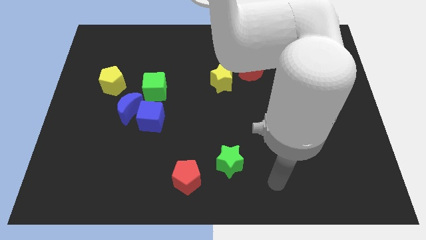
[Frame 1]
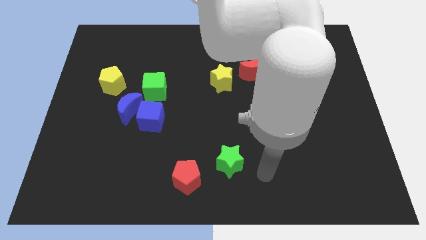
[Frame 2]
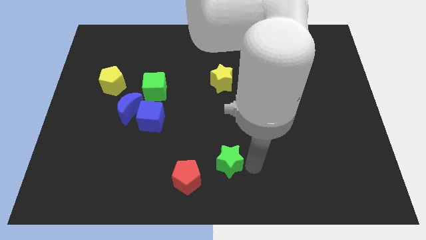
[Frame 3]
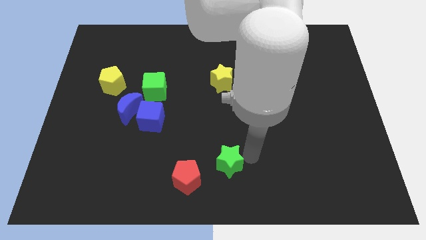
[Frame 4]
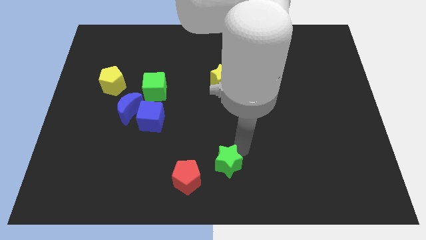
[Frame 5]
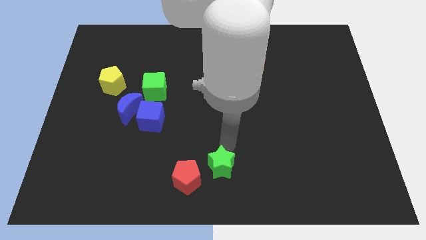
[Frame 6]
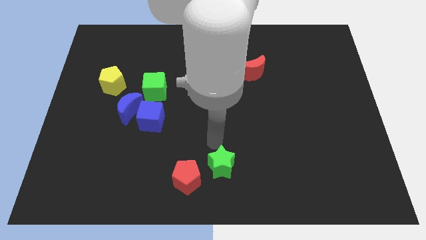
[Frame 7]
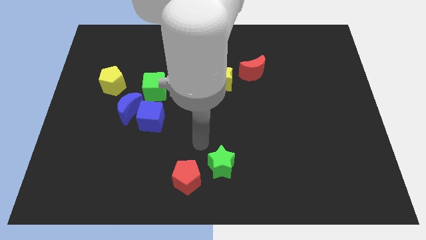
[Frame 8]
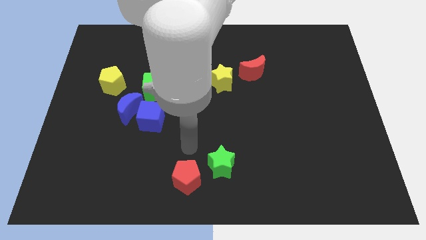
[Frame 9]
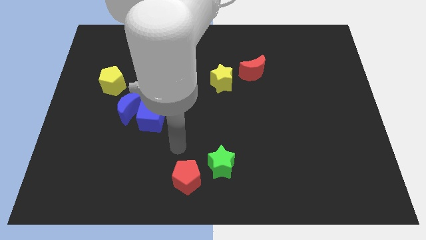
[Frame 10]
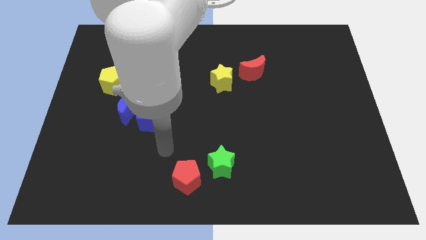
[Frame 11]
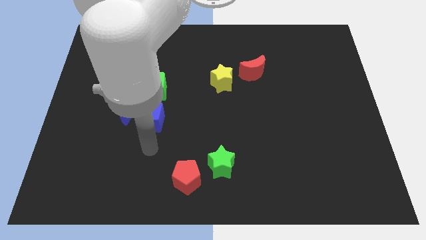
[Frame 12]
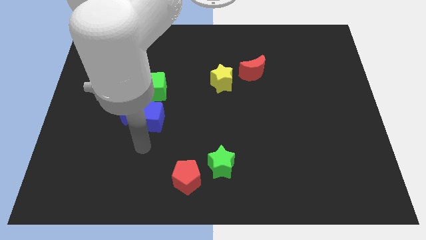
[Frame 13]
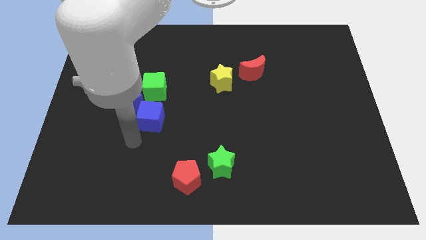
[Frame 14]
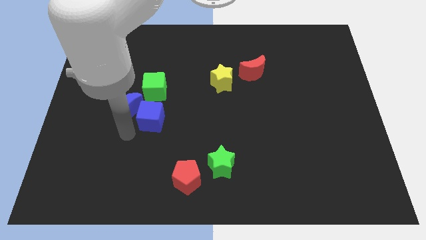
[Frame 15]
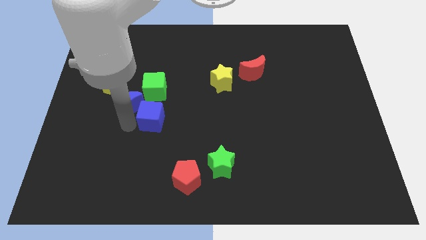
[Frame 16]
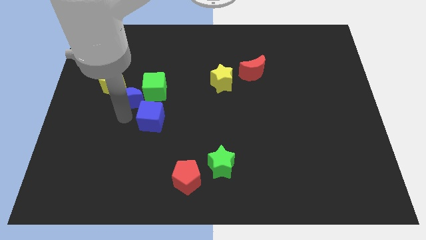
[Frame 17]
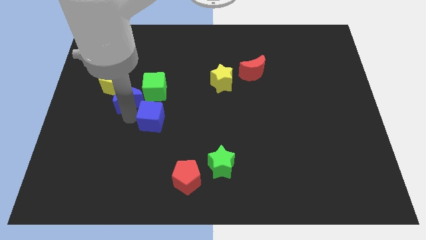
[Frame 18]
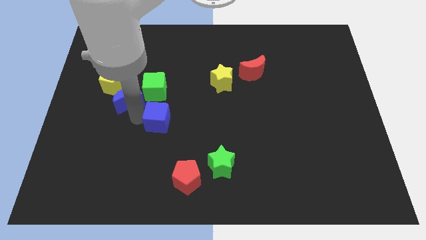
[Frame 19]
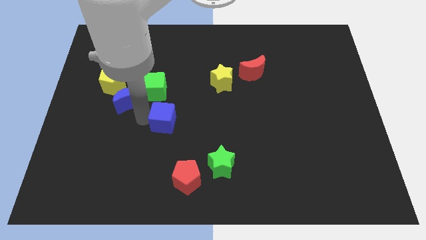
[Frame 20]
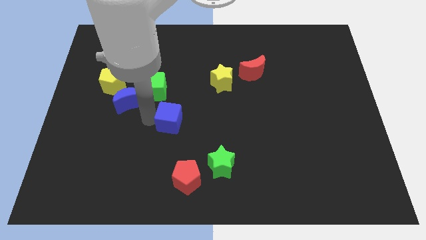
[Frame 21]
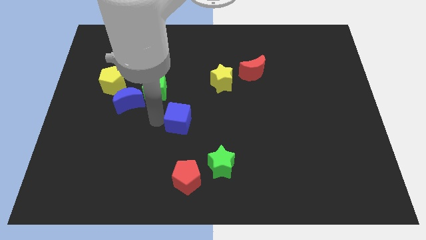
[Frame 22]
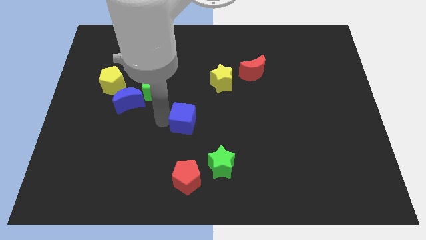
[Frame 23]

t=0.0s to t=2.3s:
slightly move the blue cube to the right

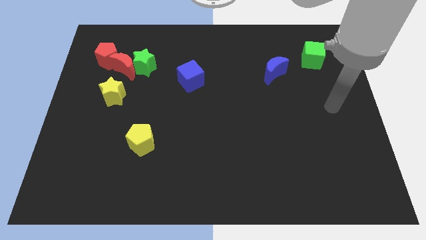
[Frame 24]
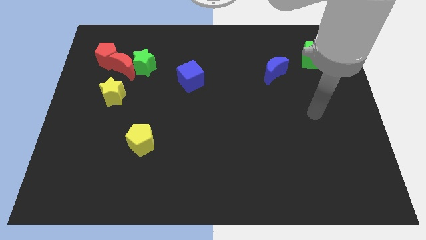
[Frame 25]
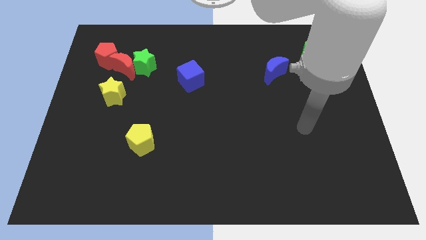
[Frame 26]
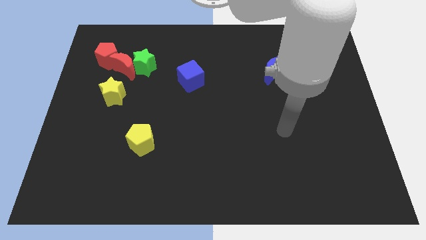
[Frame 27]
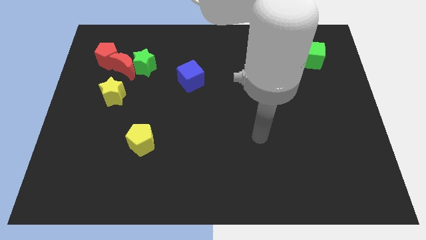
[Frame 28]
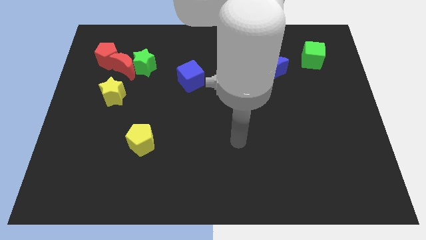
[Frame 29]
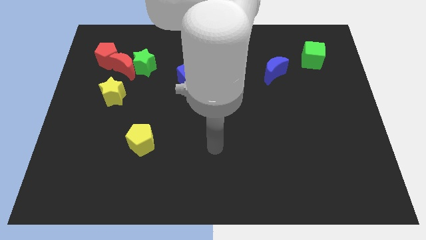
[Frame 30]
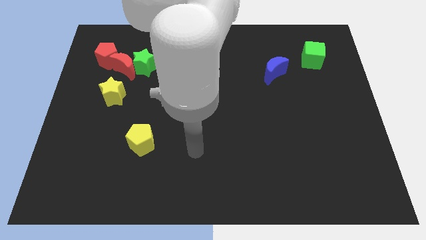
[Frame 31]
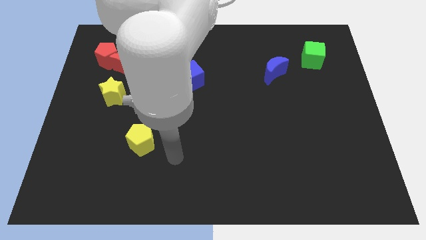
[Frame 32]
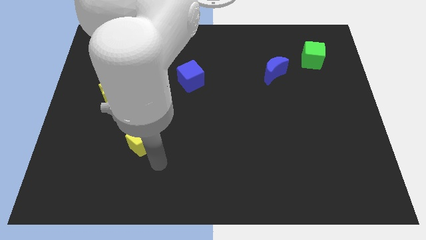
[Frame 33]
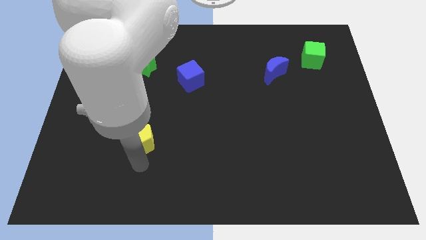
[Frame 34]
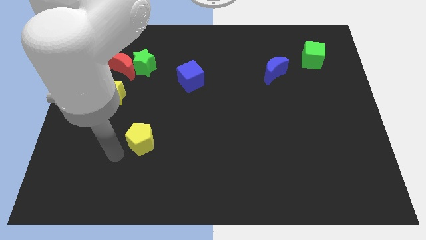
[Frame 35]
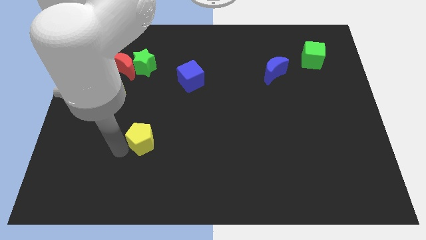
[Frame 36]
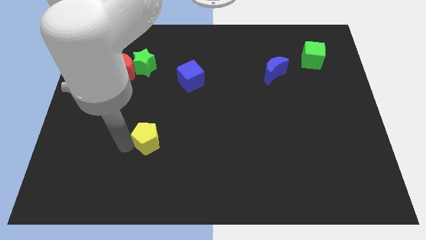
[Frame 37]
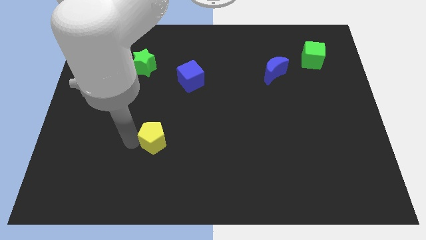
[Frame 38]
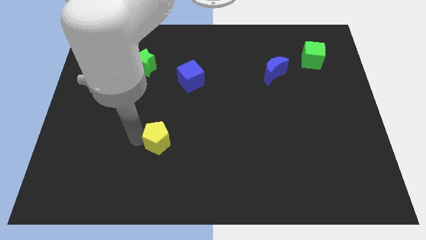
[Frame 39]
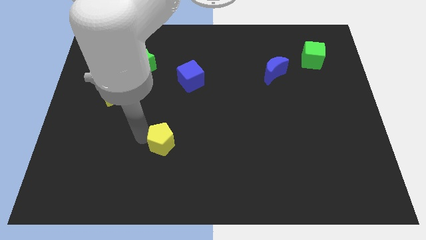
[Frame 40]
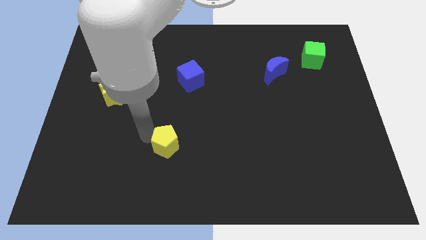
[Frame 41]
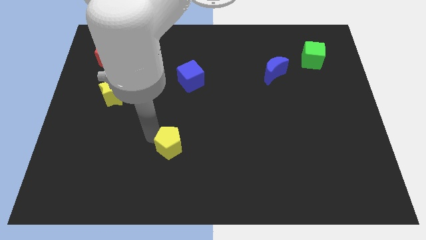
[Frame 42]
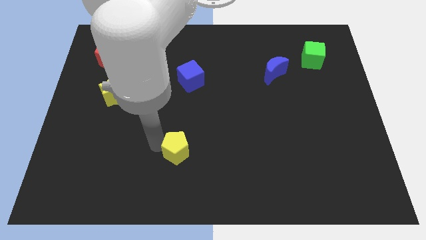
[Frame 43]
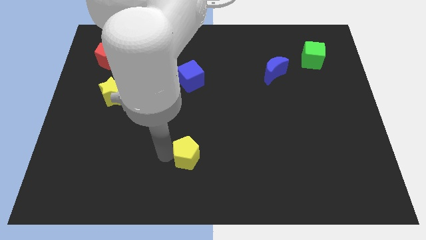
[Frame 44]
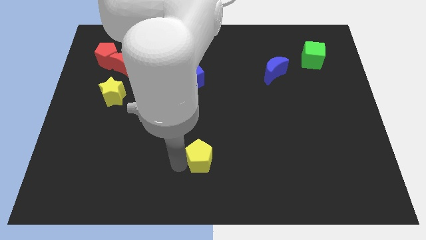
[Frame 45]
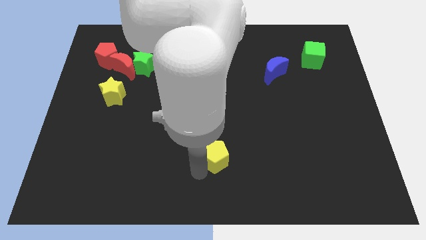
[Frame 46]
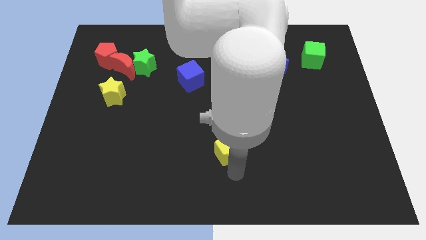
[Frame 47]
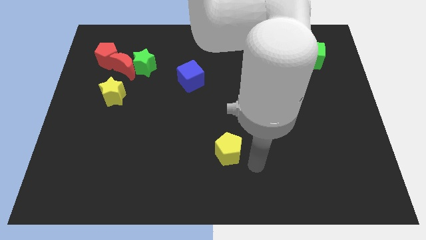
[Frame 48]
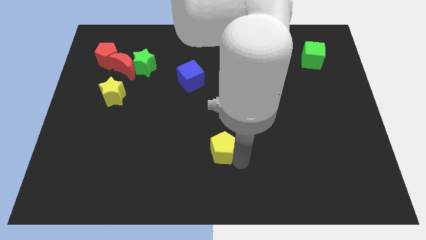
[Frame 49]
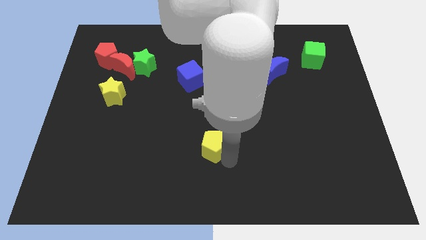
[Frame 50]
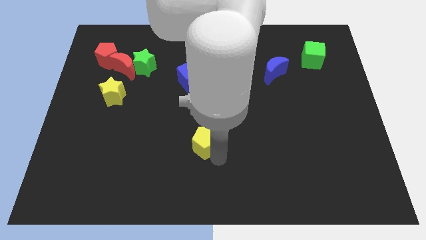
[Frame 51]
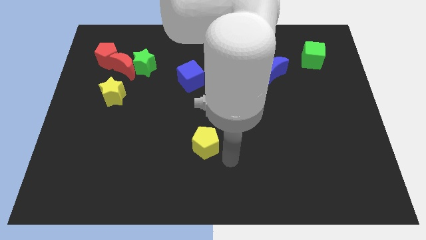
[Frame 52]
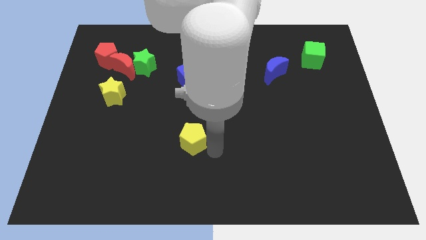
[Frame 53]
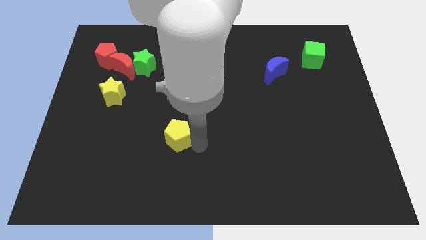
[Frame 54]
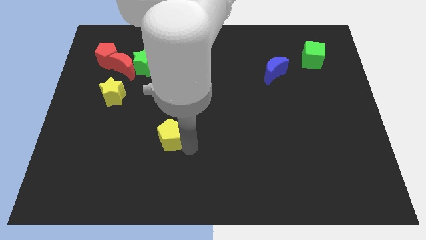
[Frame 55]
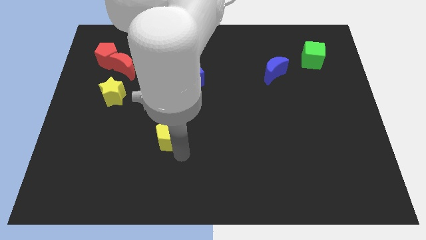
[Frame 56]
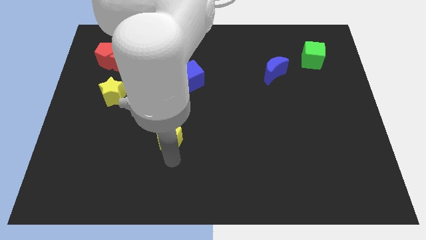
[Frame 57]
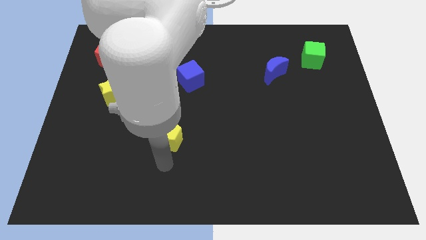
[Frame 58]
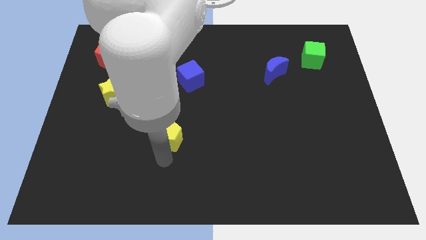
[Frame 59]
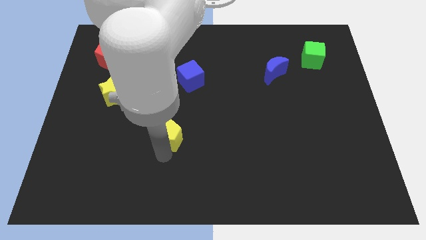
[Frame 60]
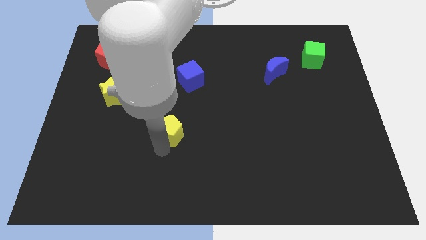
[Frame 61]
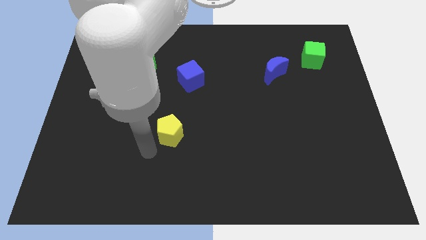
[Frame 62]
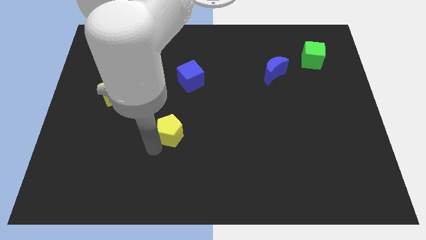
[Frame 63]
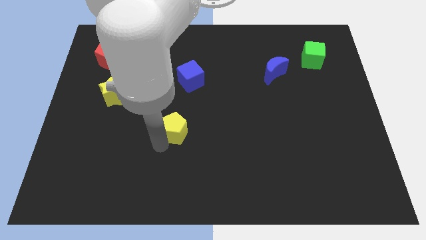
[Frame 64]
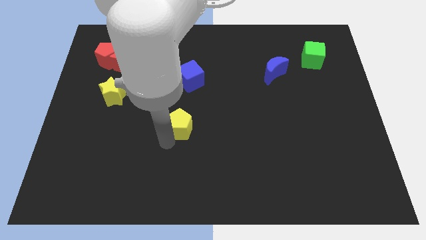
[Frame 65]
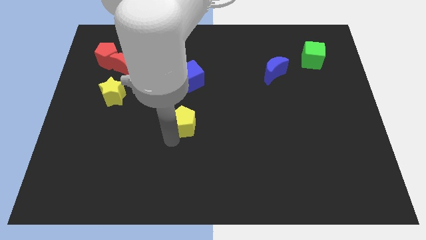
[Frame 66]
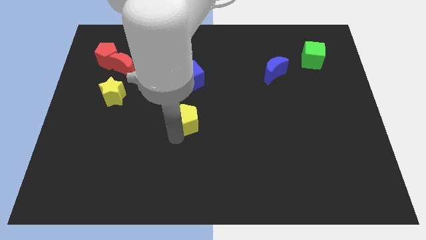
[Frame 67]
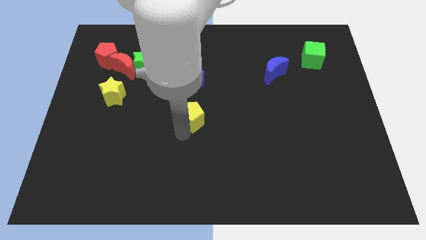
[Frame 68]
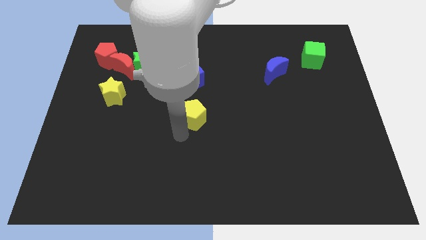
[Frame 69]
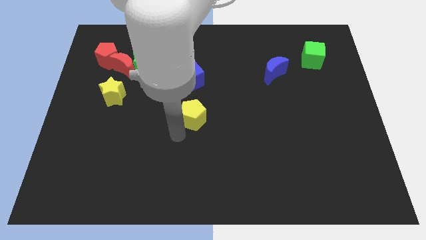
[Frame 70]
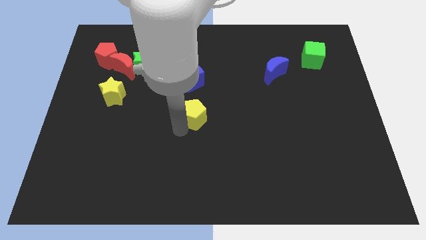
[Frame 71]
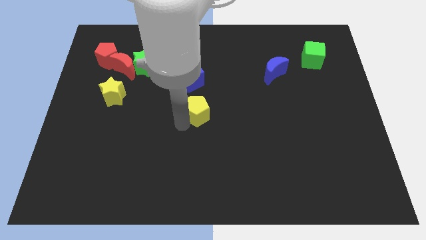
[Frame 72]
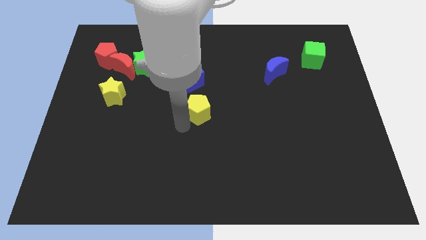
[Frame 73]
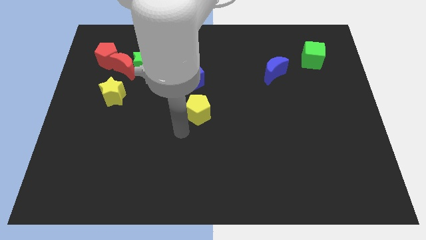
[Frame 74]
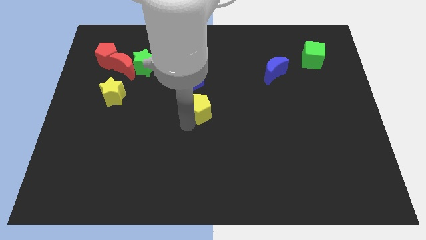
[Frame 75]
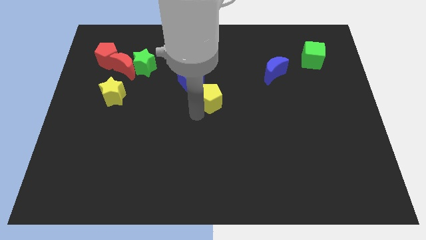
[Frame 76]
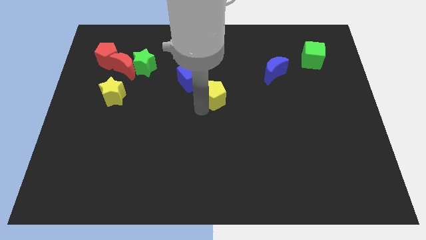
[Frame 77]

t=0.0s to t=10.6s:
move the yellow pentagon upwards and right

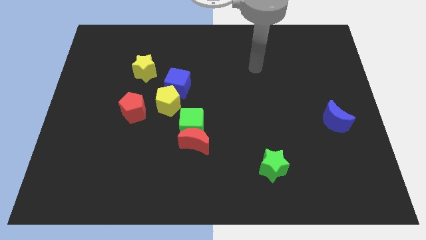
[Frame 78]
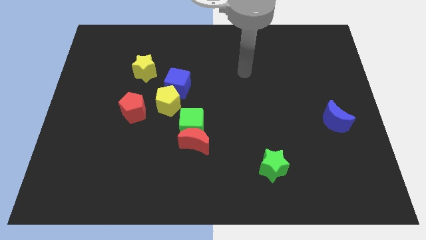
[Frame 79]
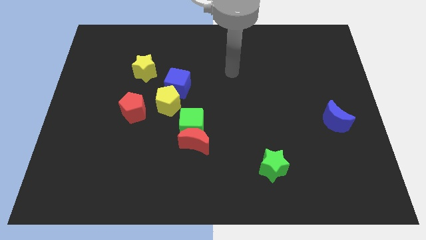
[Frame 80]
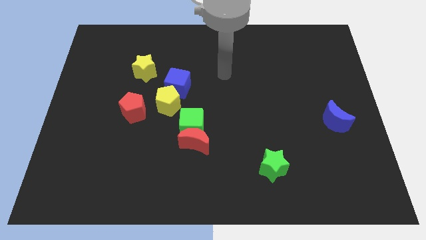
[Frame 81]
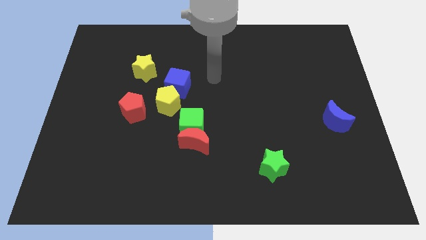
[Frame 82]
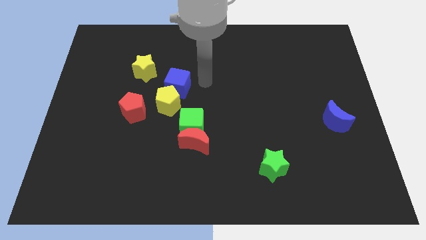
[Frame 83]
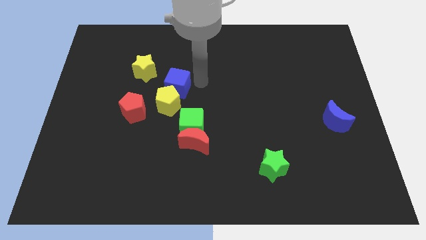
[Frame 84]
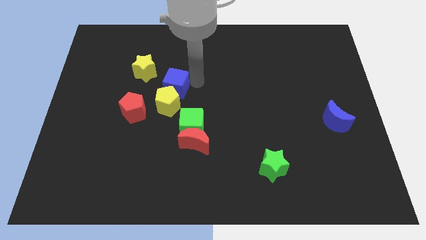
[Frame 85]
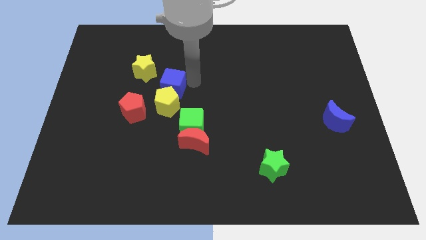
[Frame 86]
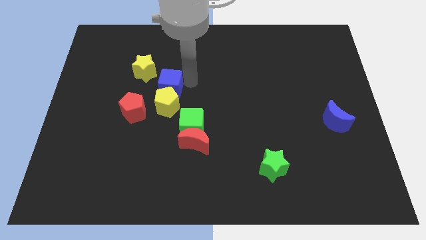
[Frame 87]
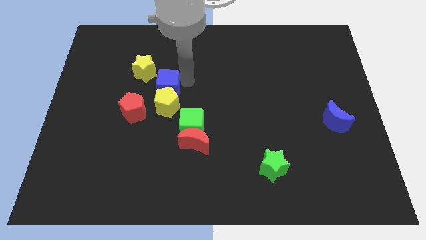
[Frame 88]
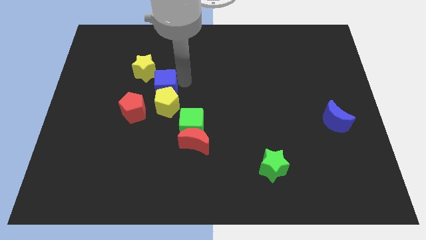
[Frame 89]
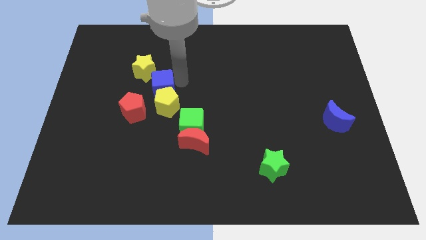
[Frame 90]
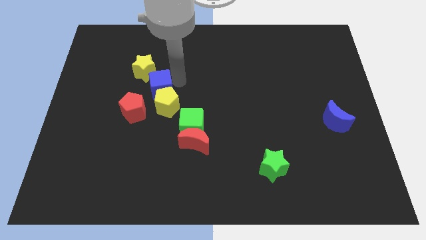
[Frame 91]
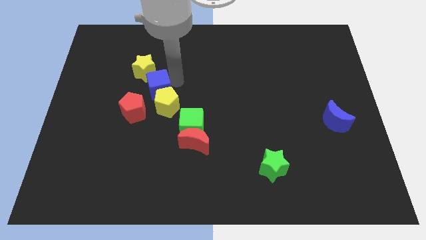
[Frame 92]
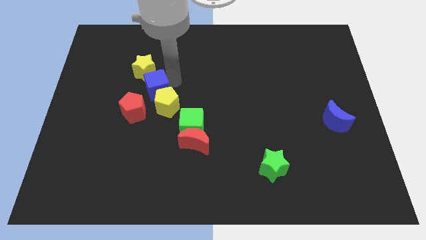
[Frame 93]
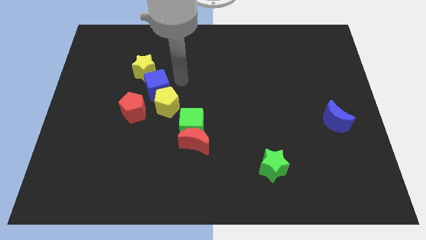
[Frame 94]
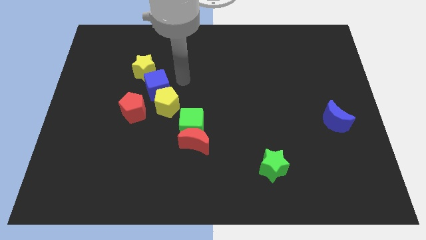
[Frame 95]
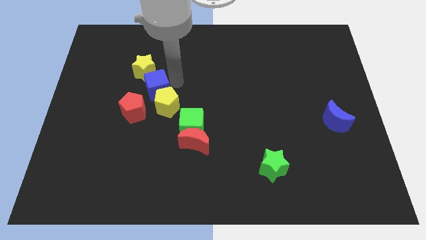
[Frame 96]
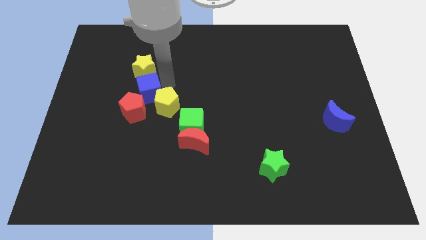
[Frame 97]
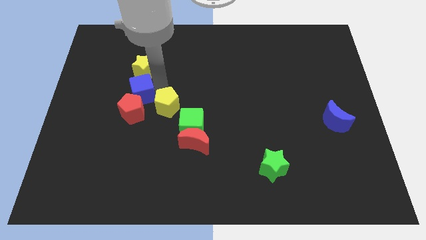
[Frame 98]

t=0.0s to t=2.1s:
move the blue cube down and then to the left somewhat
